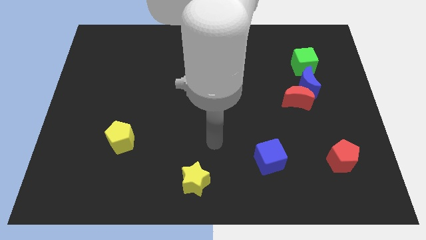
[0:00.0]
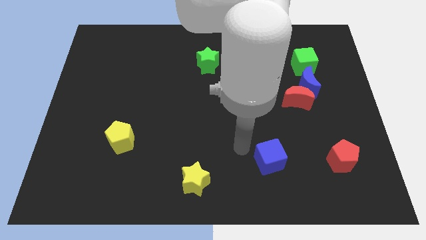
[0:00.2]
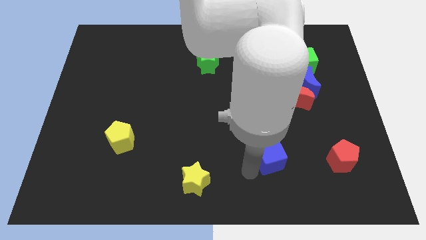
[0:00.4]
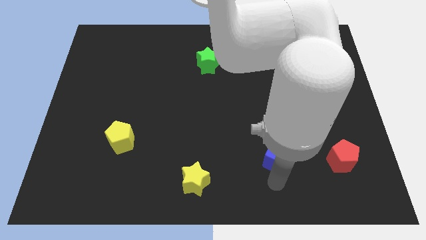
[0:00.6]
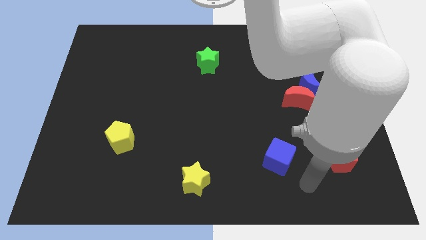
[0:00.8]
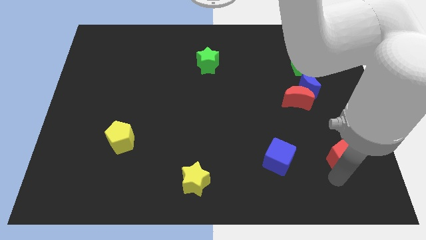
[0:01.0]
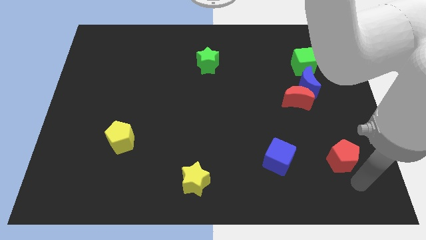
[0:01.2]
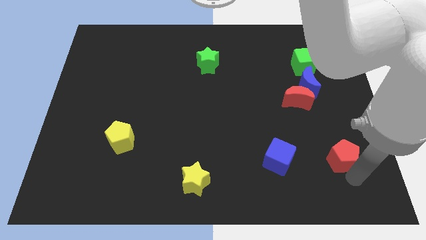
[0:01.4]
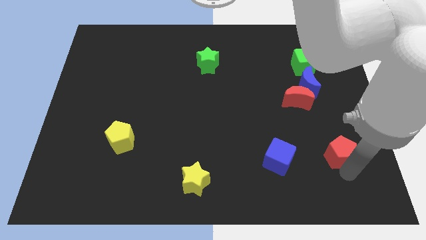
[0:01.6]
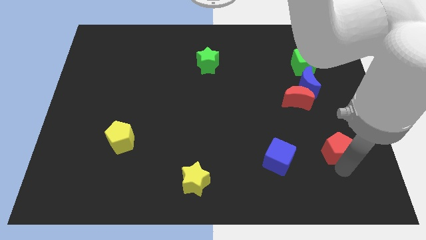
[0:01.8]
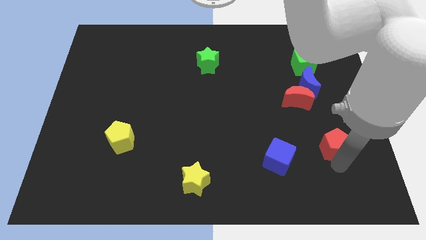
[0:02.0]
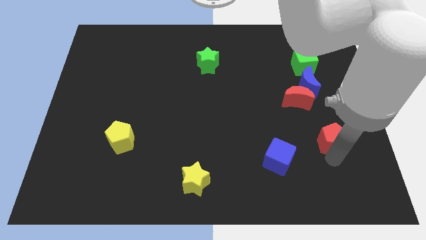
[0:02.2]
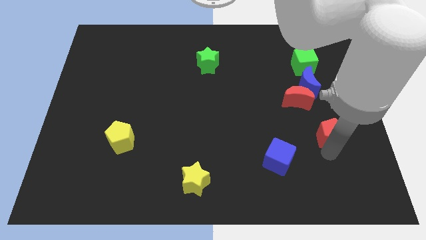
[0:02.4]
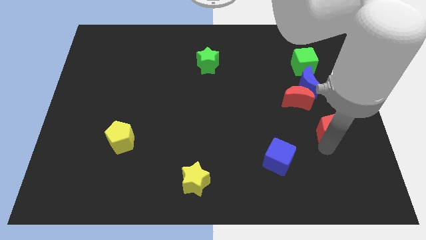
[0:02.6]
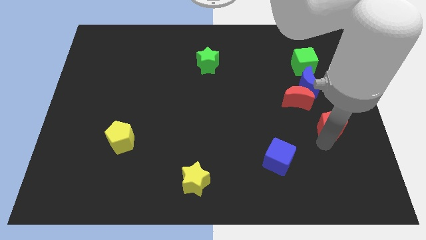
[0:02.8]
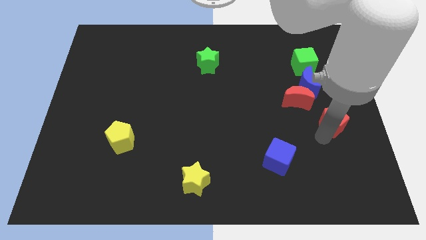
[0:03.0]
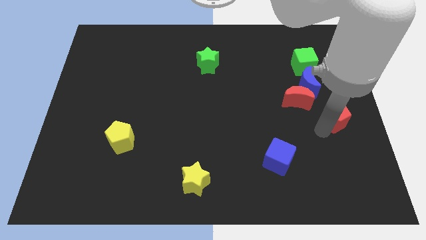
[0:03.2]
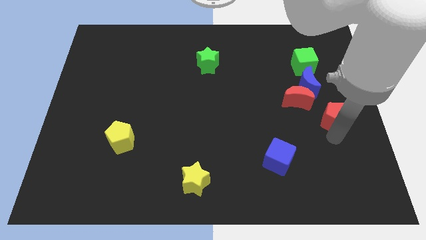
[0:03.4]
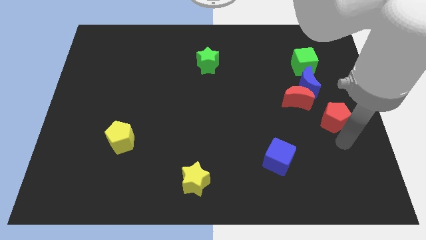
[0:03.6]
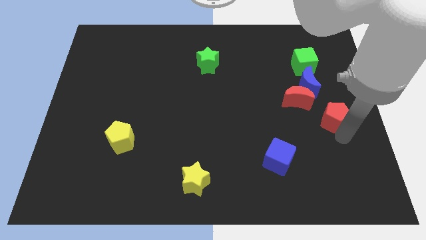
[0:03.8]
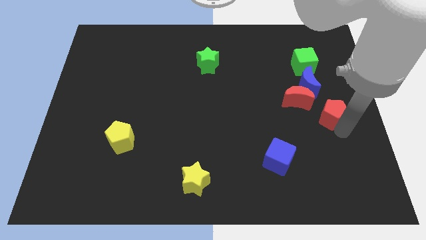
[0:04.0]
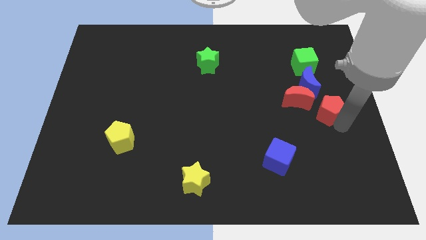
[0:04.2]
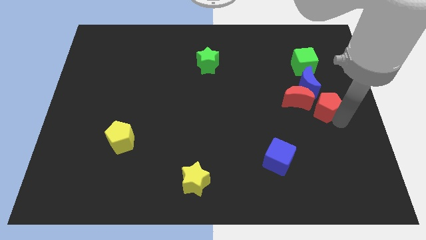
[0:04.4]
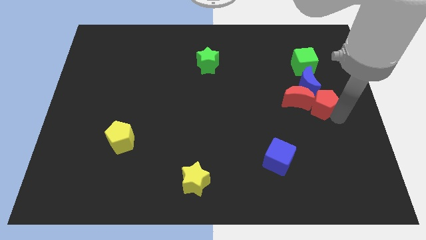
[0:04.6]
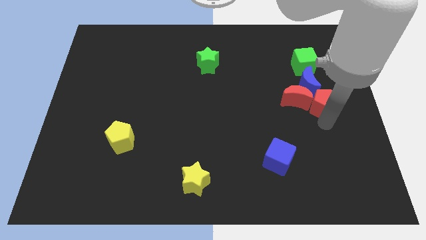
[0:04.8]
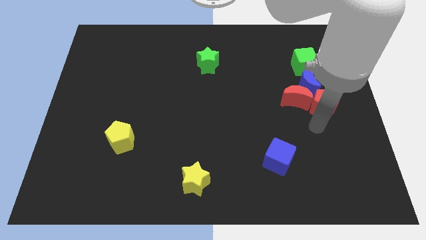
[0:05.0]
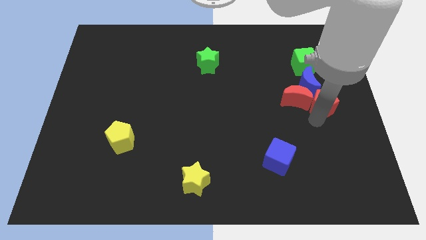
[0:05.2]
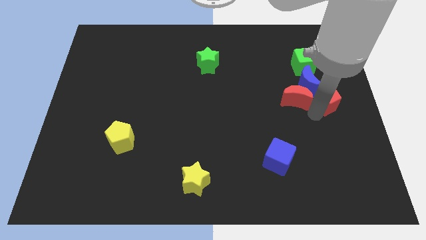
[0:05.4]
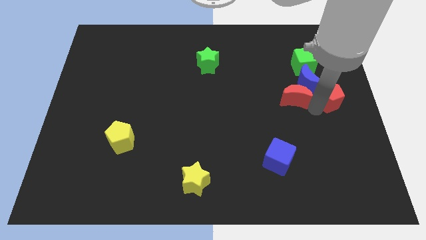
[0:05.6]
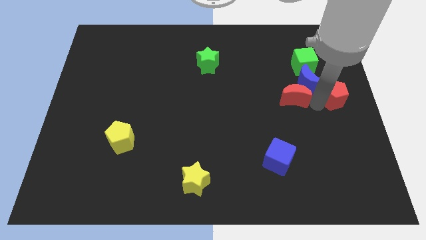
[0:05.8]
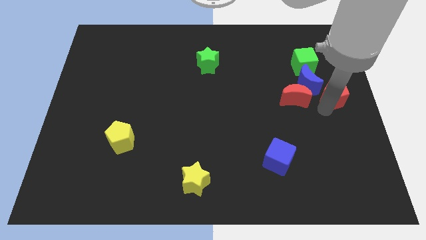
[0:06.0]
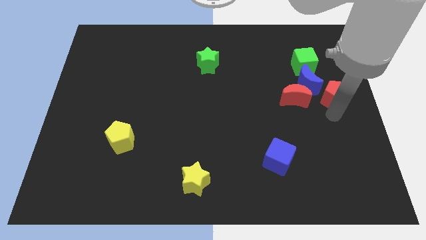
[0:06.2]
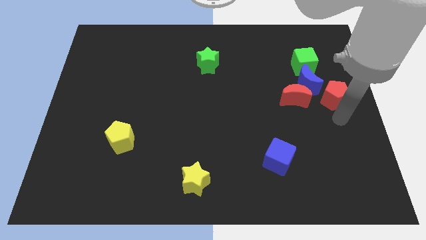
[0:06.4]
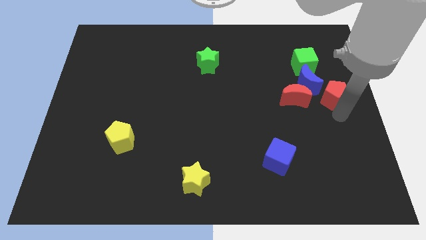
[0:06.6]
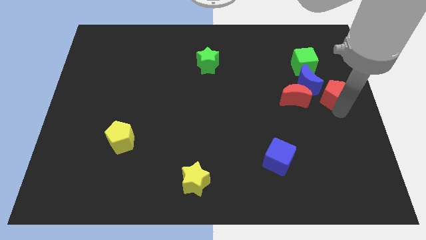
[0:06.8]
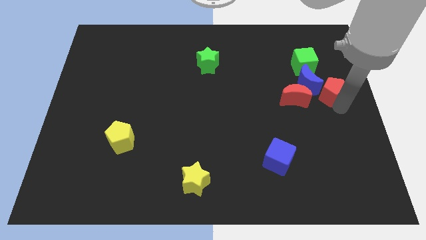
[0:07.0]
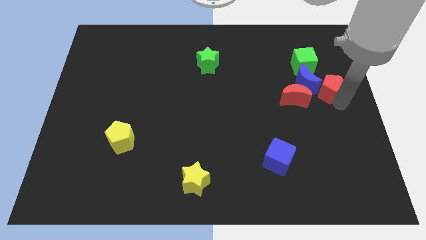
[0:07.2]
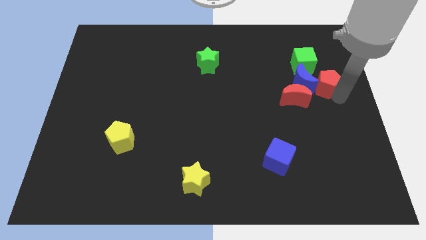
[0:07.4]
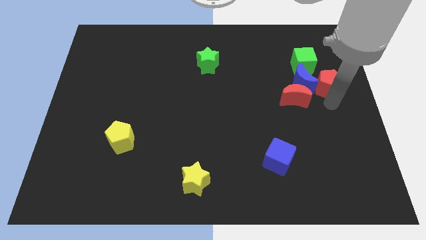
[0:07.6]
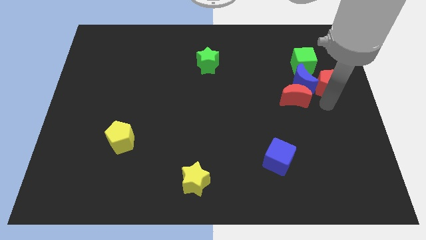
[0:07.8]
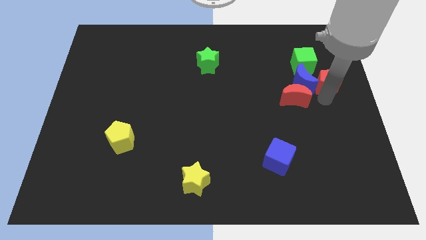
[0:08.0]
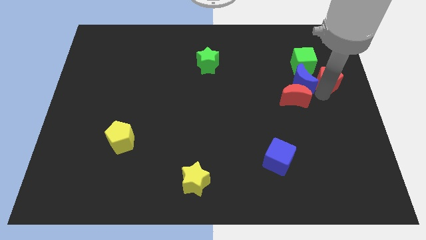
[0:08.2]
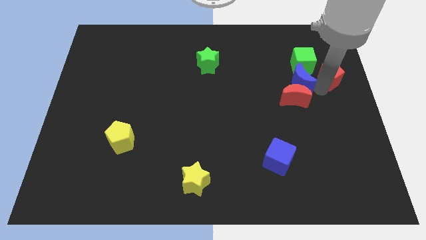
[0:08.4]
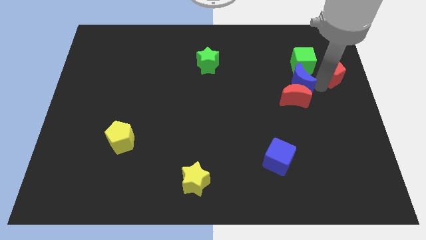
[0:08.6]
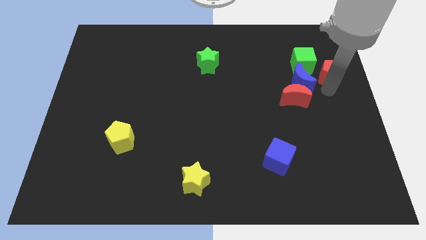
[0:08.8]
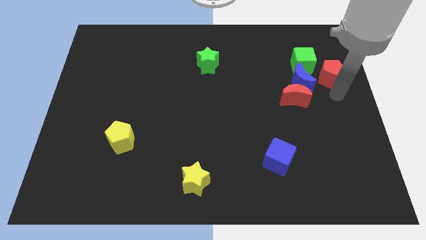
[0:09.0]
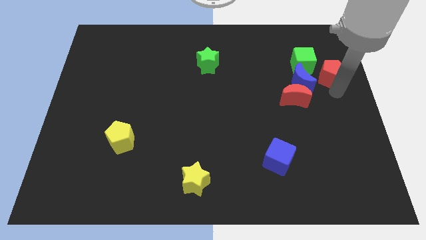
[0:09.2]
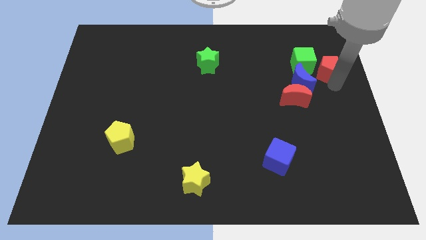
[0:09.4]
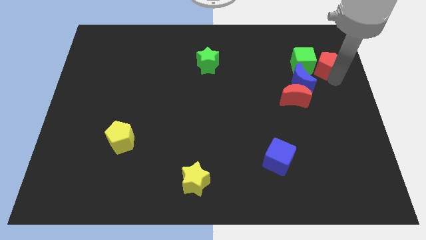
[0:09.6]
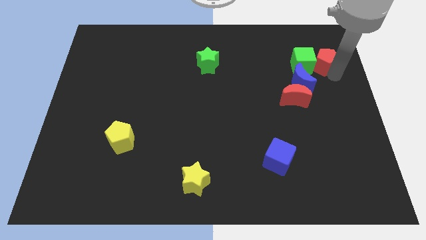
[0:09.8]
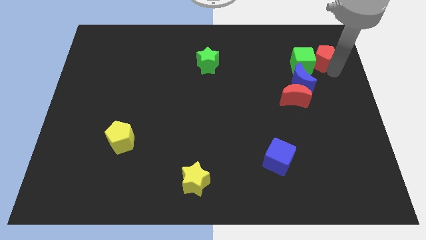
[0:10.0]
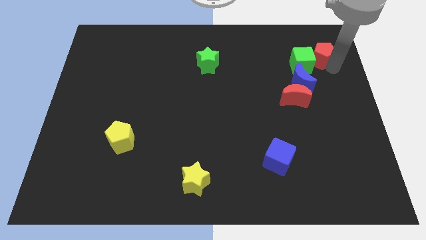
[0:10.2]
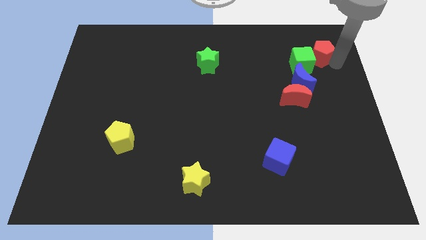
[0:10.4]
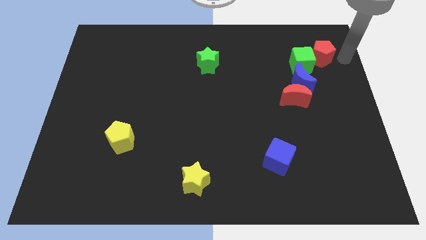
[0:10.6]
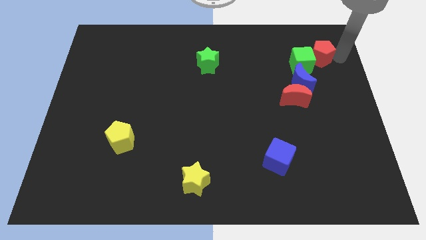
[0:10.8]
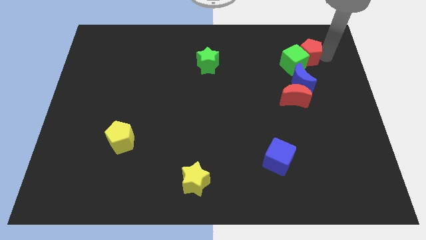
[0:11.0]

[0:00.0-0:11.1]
move the red pentagon to the top side of the blue moon

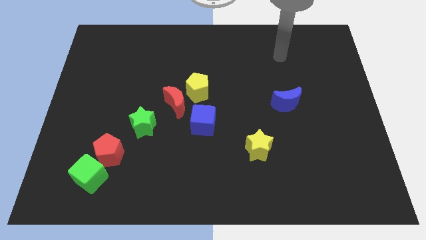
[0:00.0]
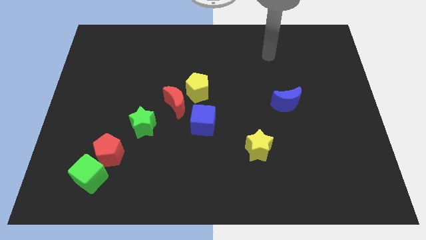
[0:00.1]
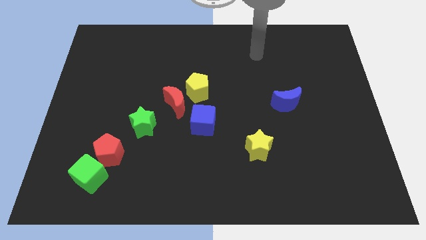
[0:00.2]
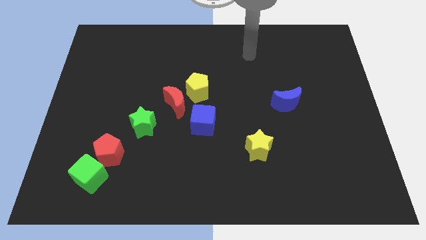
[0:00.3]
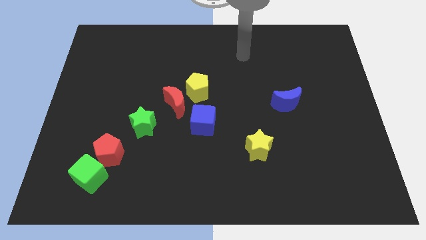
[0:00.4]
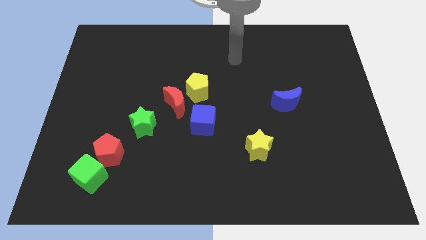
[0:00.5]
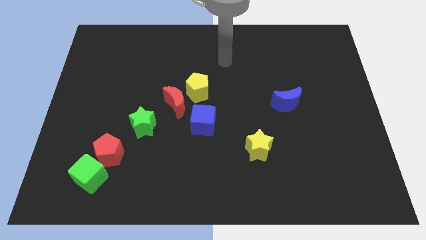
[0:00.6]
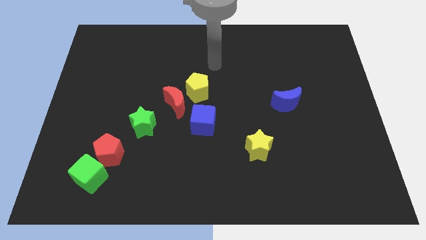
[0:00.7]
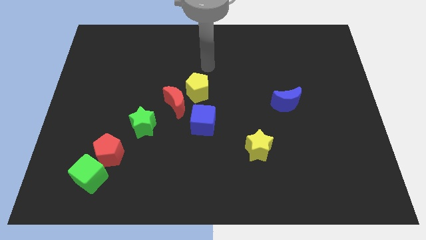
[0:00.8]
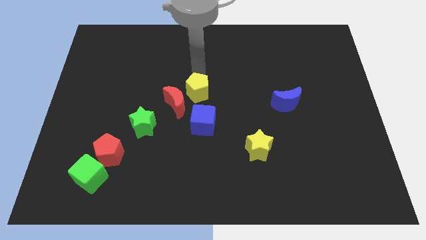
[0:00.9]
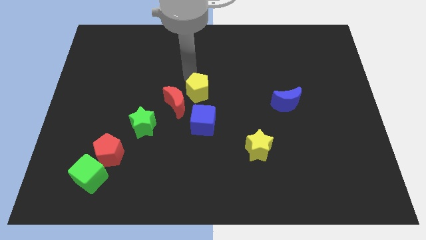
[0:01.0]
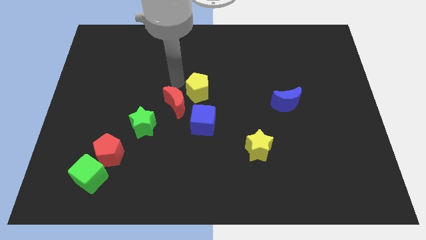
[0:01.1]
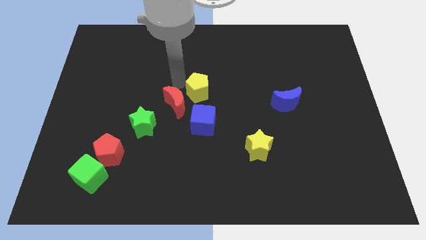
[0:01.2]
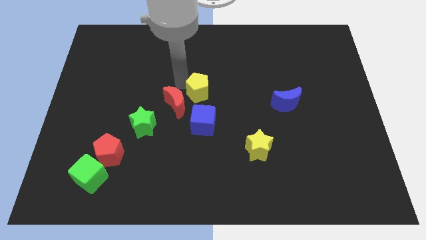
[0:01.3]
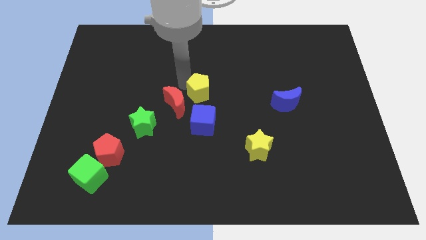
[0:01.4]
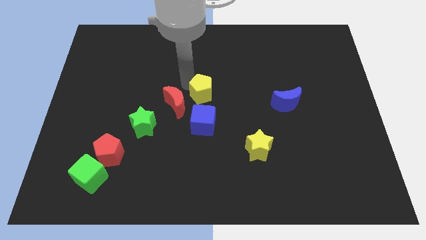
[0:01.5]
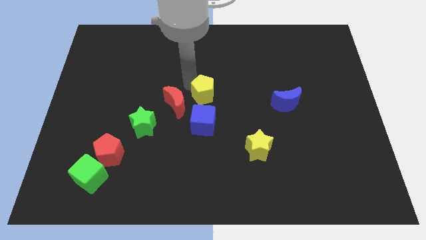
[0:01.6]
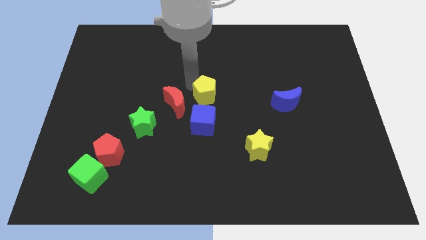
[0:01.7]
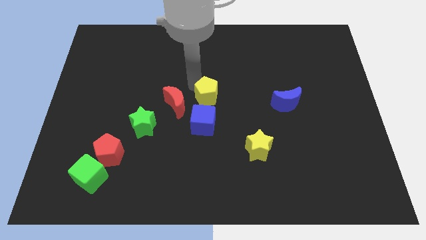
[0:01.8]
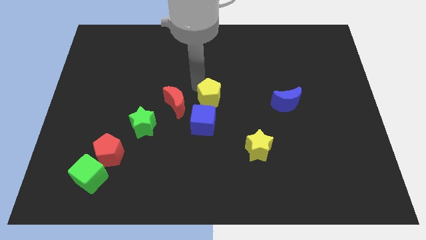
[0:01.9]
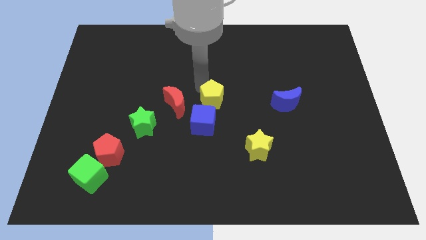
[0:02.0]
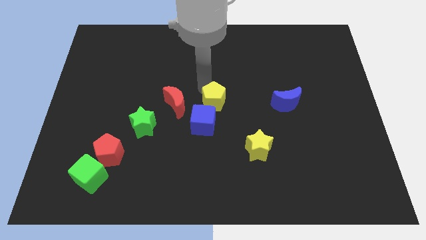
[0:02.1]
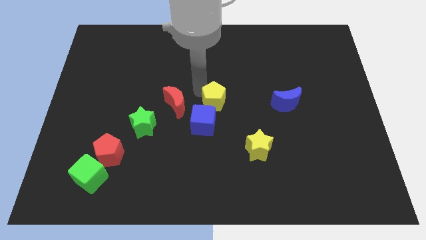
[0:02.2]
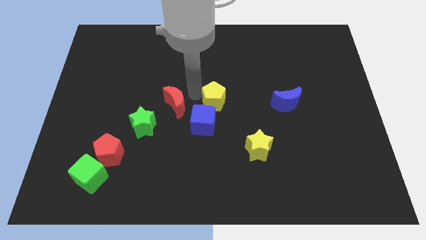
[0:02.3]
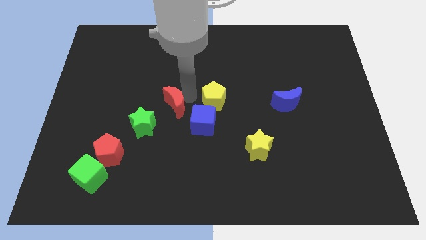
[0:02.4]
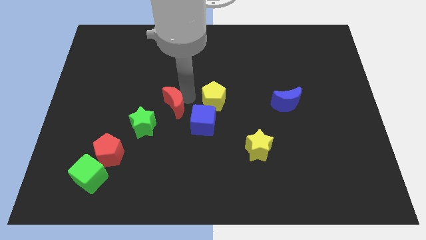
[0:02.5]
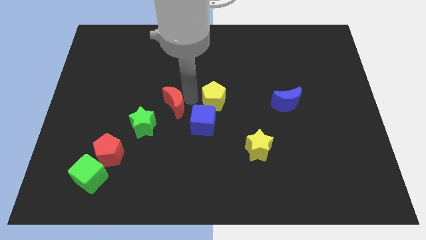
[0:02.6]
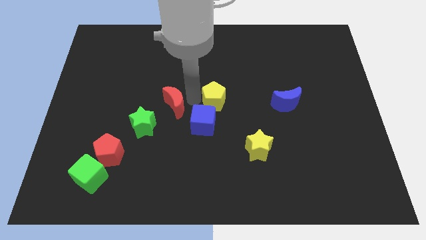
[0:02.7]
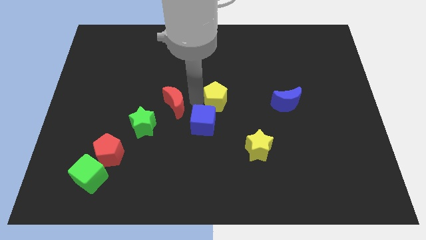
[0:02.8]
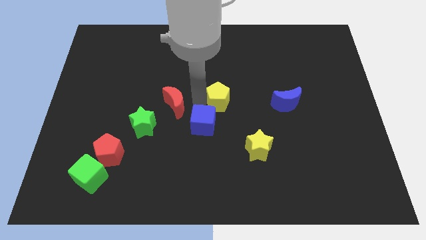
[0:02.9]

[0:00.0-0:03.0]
slide the yellow pentagon to the left side of the blue moon
